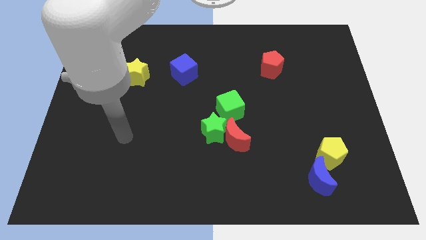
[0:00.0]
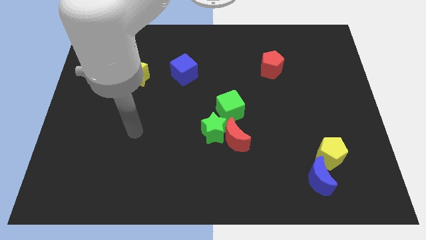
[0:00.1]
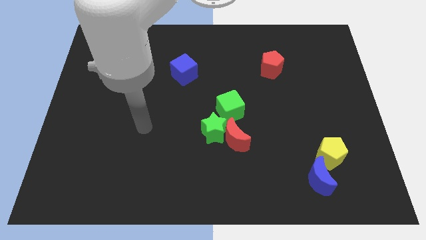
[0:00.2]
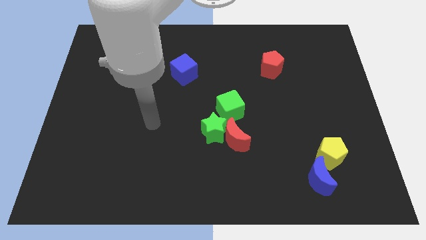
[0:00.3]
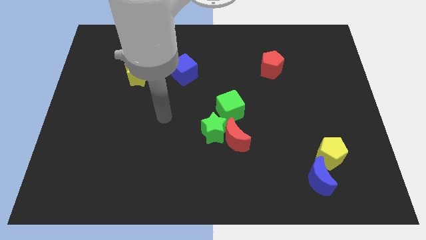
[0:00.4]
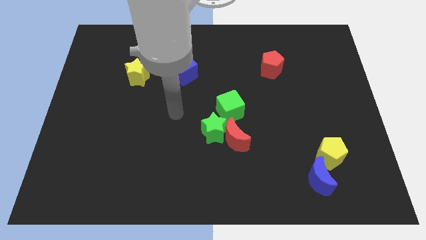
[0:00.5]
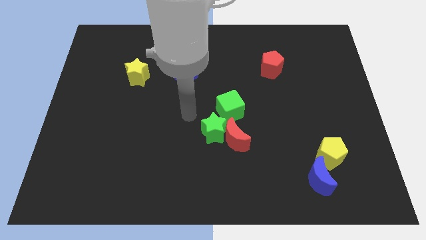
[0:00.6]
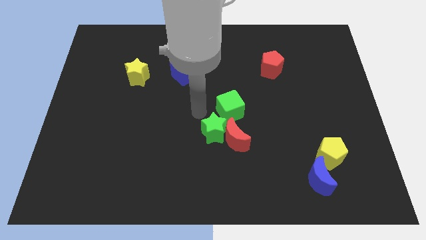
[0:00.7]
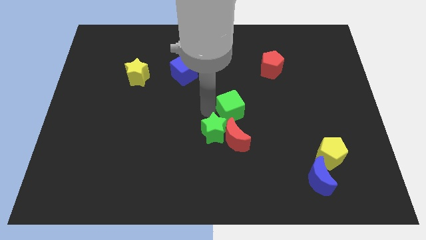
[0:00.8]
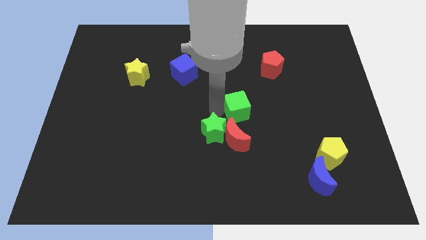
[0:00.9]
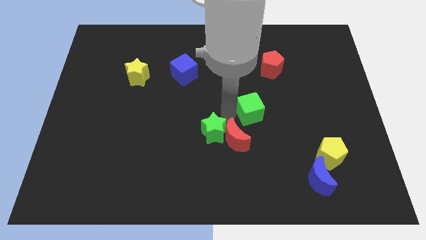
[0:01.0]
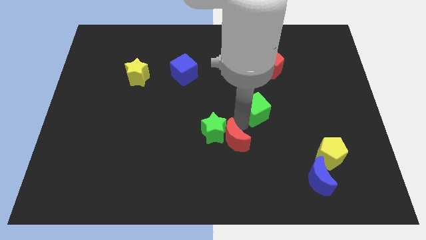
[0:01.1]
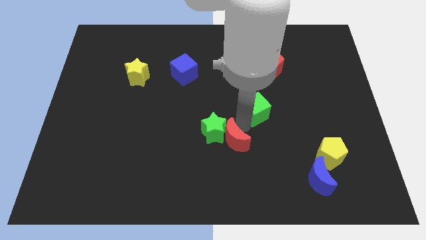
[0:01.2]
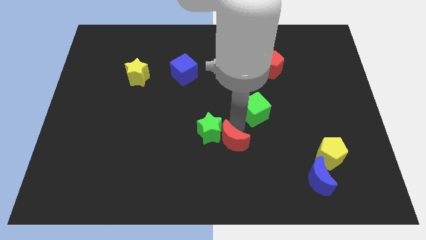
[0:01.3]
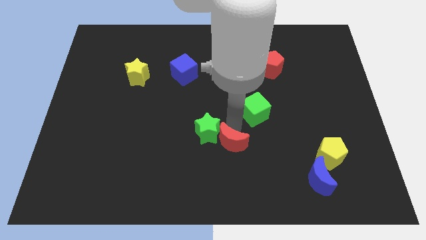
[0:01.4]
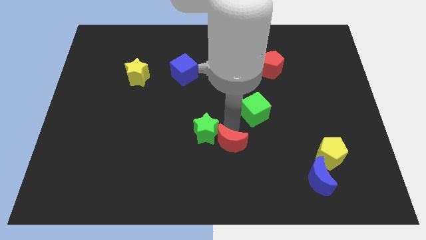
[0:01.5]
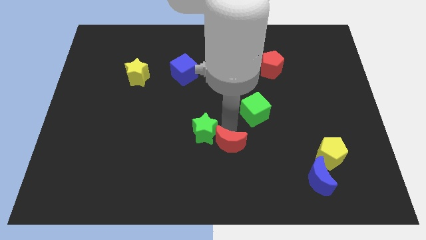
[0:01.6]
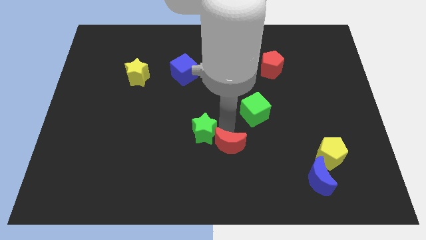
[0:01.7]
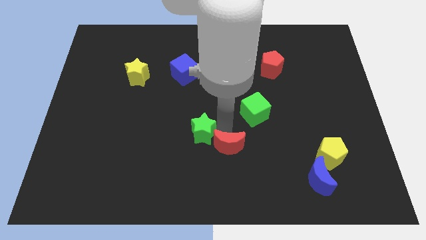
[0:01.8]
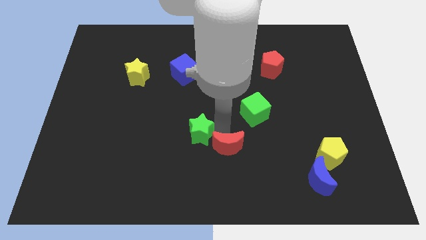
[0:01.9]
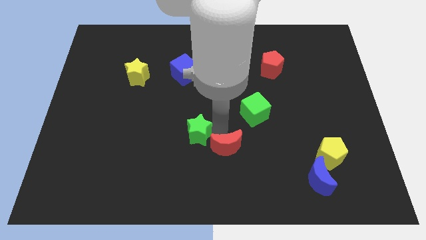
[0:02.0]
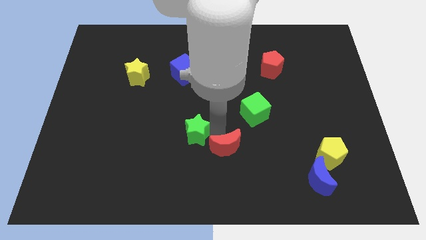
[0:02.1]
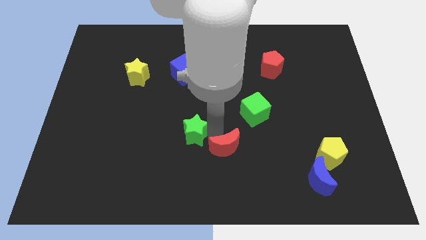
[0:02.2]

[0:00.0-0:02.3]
separate the green star from the red moon and green cube

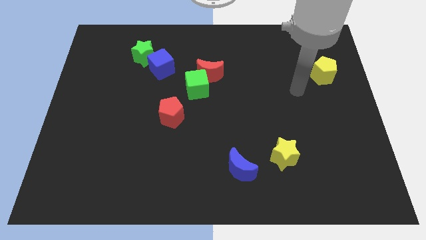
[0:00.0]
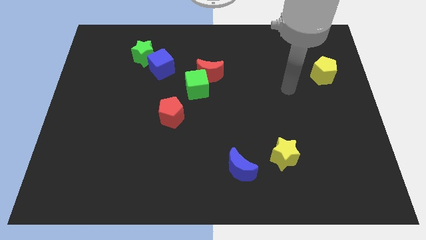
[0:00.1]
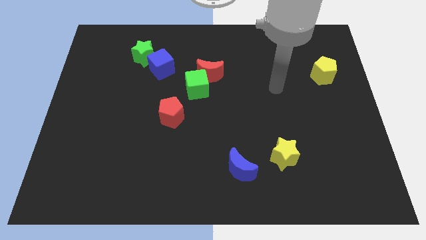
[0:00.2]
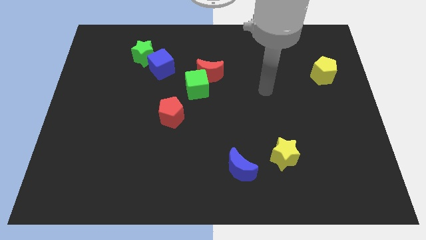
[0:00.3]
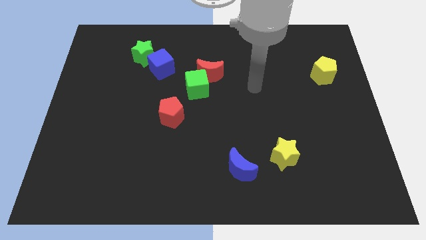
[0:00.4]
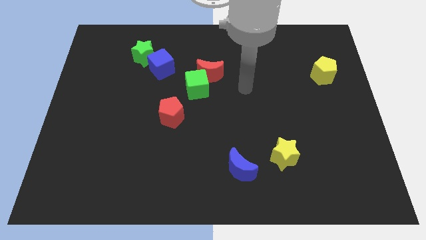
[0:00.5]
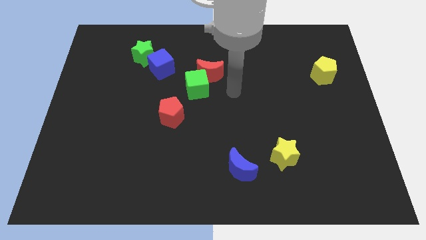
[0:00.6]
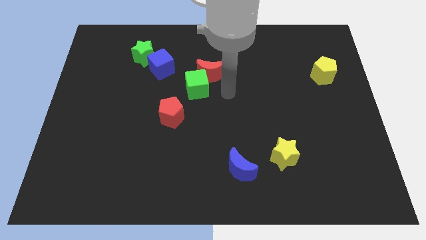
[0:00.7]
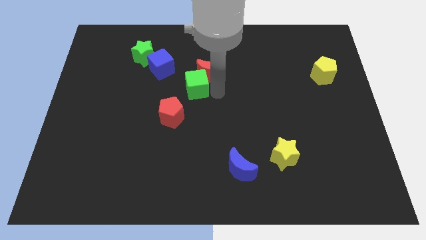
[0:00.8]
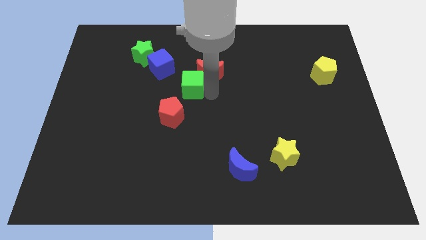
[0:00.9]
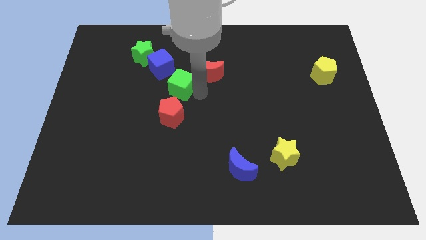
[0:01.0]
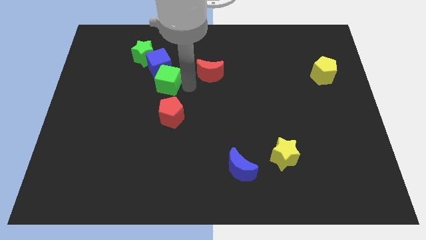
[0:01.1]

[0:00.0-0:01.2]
pull the red moon apart from the green cube

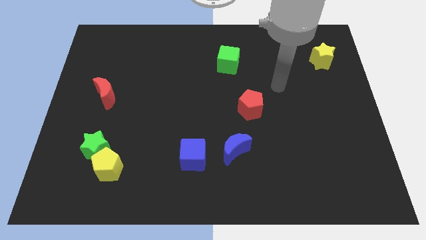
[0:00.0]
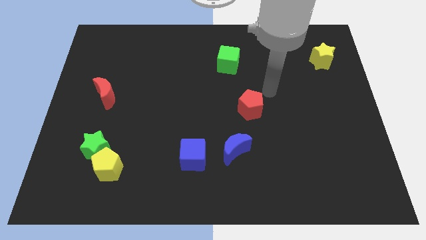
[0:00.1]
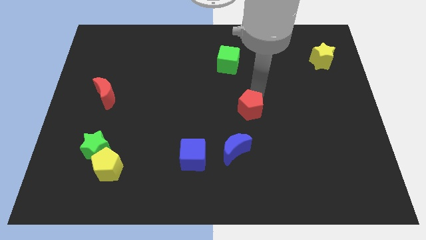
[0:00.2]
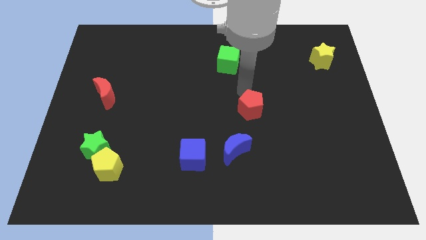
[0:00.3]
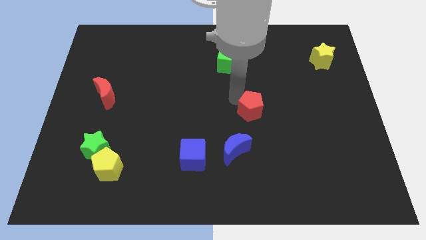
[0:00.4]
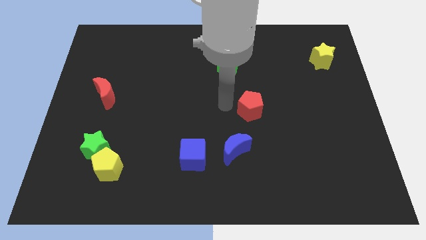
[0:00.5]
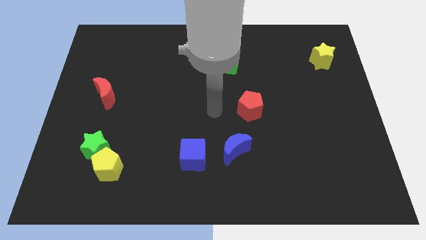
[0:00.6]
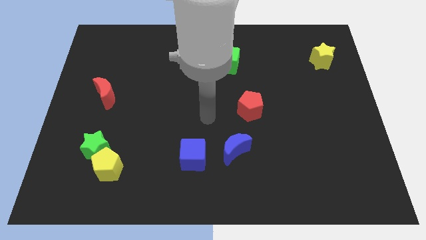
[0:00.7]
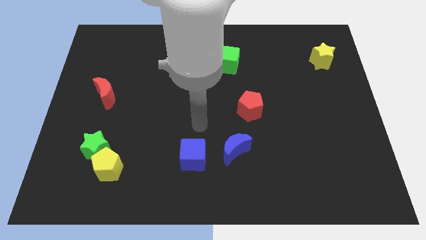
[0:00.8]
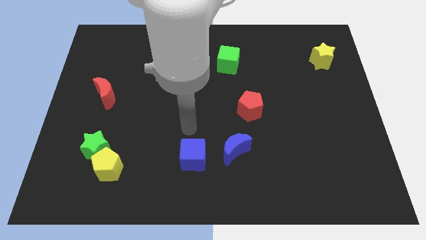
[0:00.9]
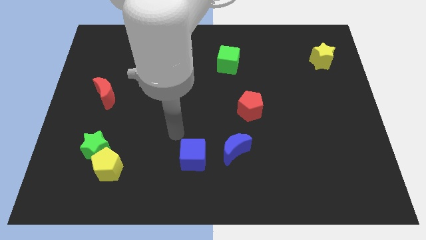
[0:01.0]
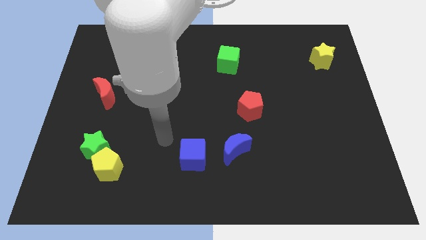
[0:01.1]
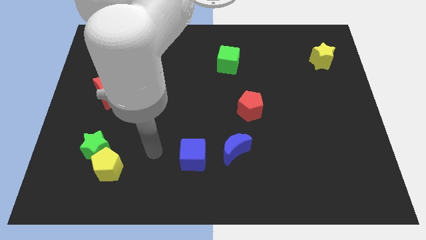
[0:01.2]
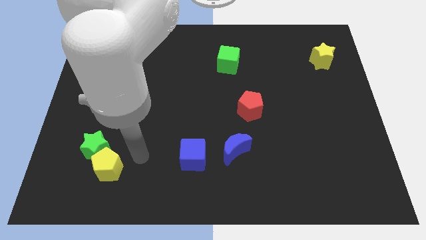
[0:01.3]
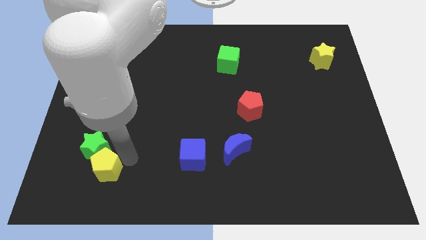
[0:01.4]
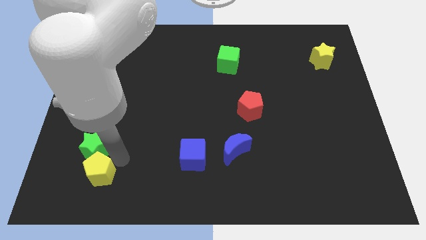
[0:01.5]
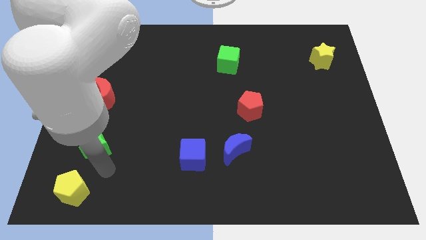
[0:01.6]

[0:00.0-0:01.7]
pull the green star apart from the yellow pentagon

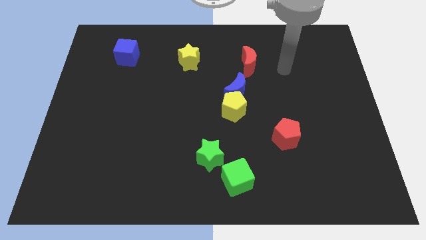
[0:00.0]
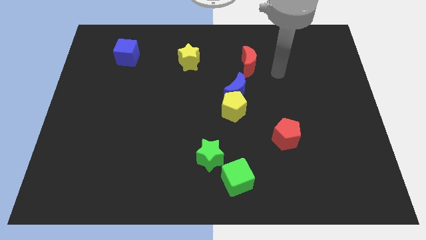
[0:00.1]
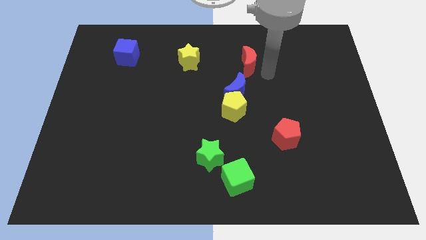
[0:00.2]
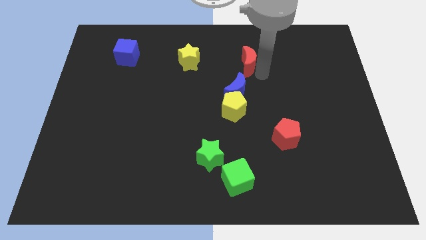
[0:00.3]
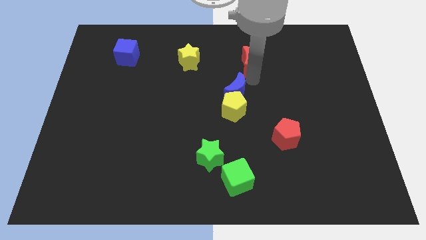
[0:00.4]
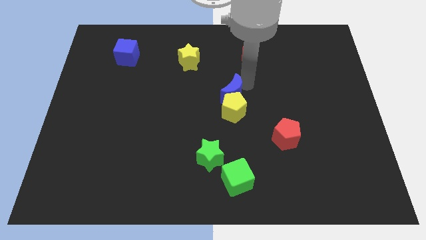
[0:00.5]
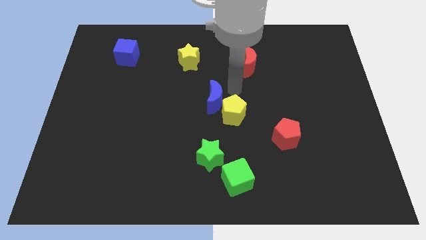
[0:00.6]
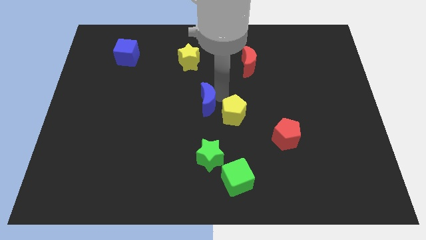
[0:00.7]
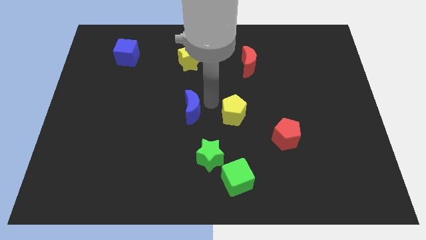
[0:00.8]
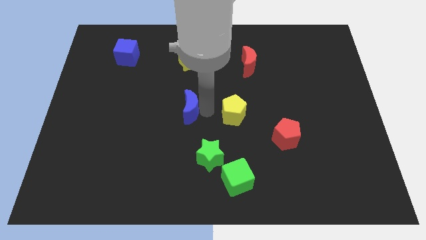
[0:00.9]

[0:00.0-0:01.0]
pull the yellow pentagon apart from the blue moon

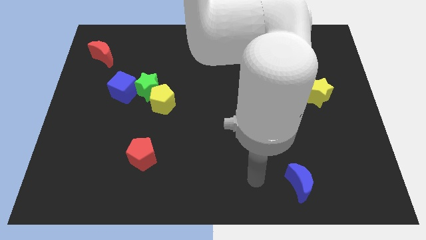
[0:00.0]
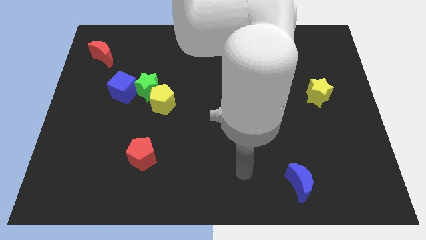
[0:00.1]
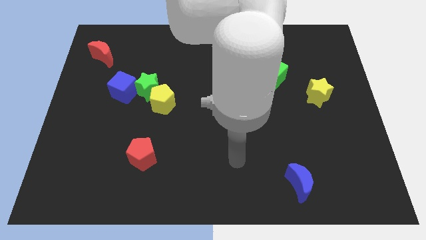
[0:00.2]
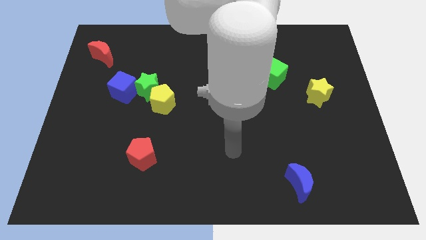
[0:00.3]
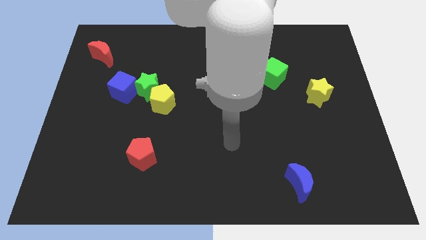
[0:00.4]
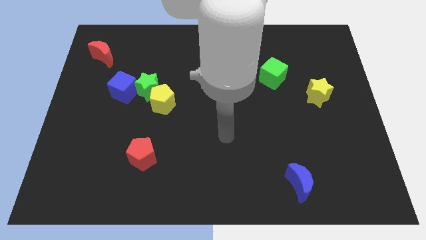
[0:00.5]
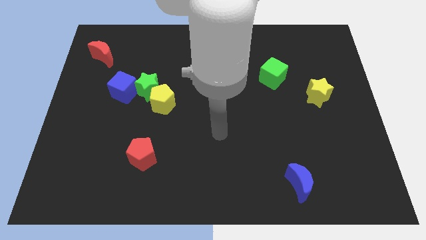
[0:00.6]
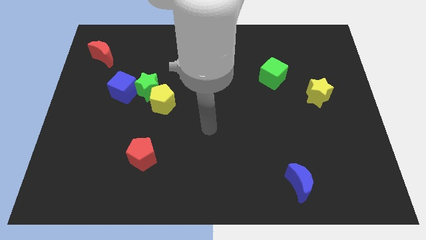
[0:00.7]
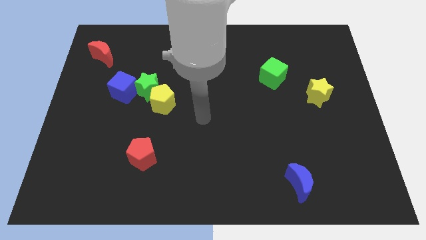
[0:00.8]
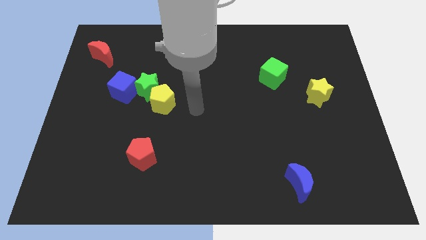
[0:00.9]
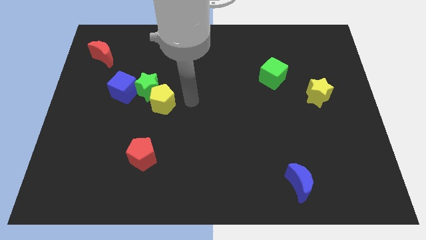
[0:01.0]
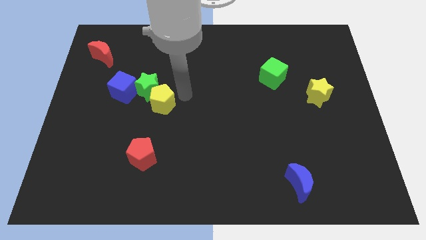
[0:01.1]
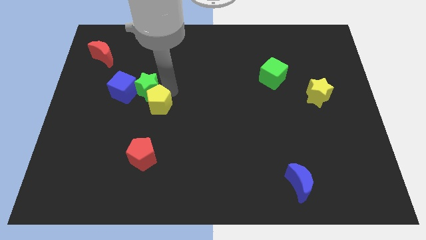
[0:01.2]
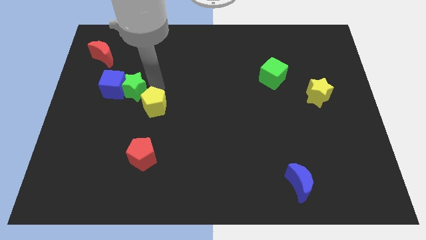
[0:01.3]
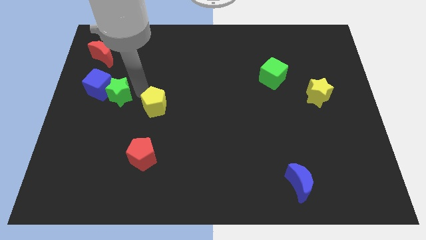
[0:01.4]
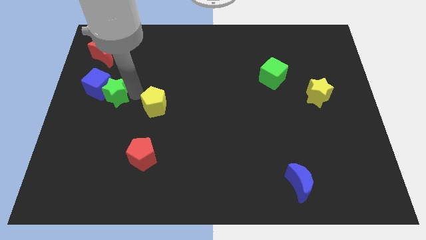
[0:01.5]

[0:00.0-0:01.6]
separate the yellow pentagon from the green star

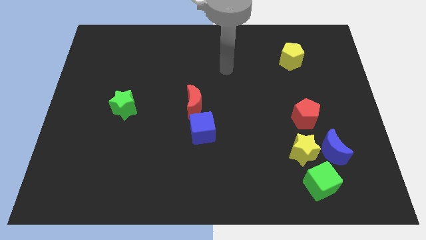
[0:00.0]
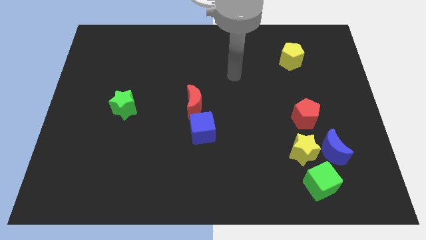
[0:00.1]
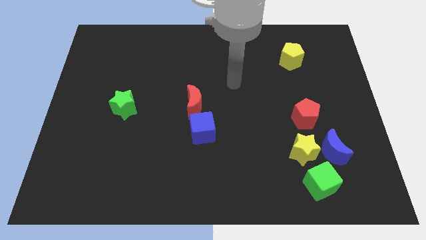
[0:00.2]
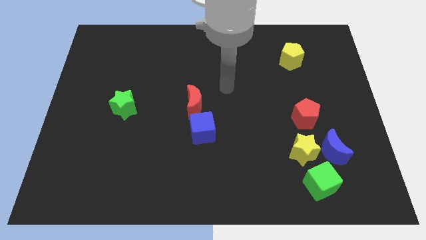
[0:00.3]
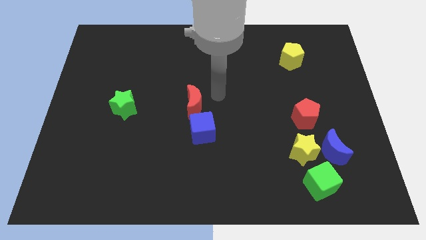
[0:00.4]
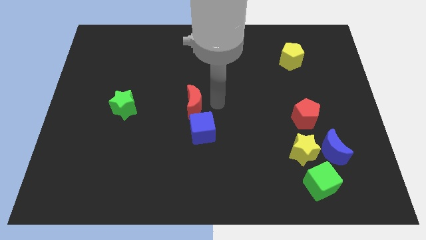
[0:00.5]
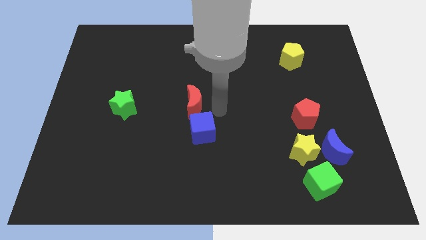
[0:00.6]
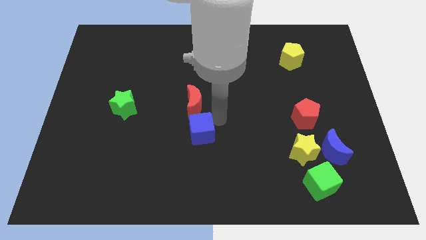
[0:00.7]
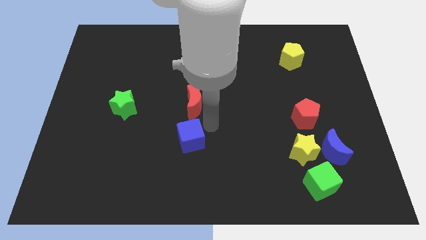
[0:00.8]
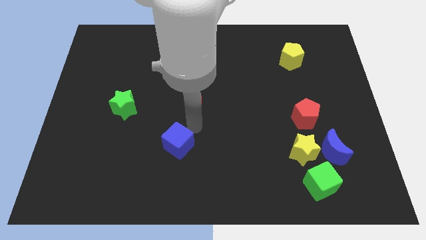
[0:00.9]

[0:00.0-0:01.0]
separate the red moon from the blue cube

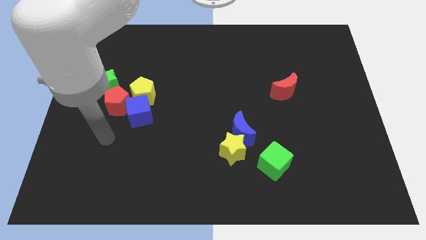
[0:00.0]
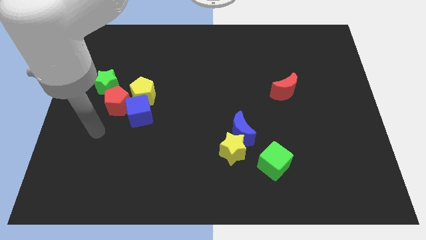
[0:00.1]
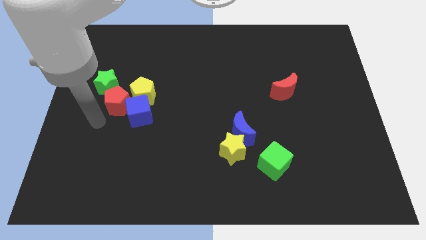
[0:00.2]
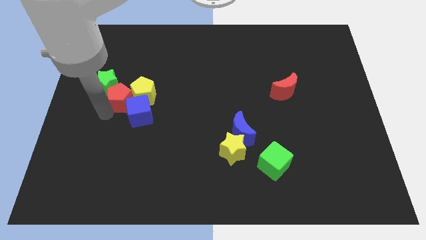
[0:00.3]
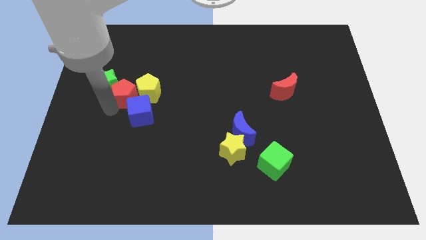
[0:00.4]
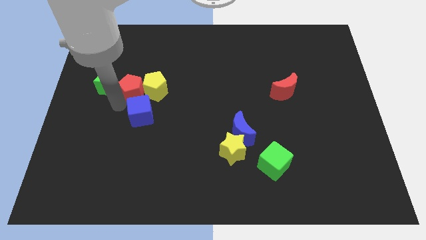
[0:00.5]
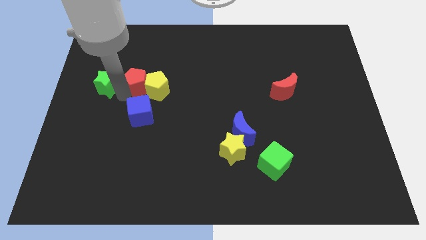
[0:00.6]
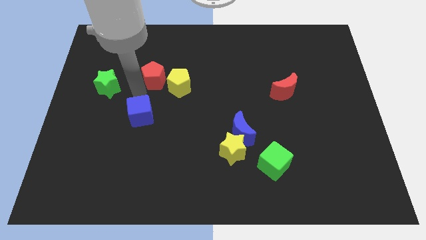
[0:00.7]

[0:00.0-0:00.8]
pull the blue cube apart from the yellow pentagon and red pentagon
